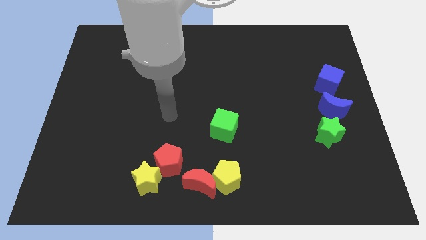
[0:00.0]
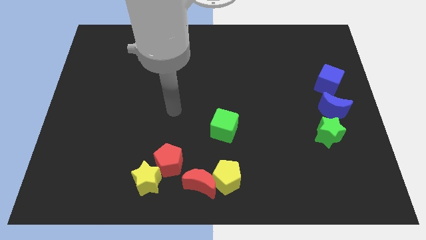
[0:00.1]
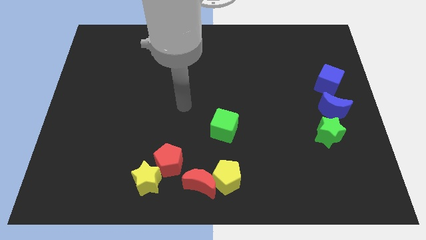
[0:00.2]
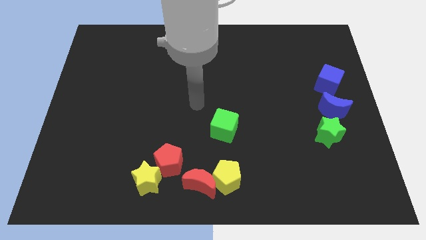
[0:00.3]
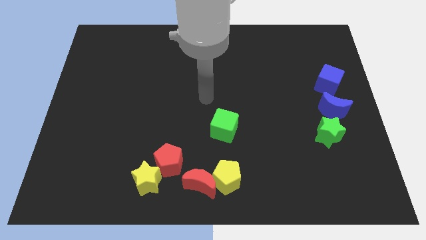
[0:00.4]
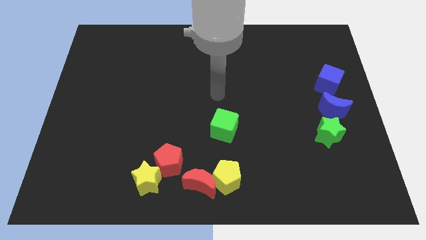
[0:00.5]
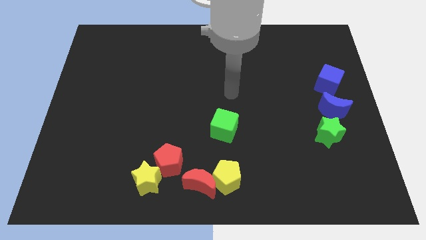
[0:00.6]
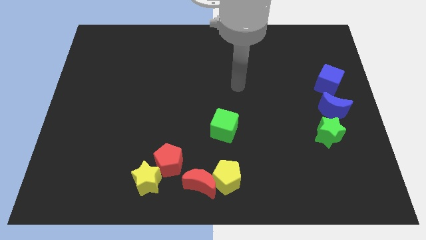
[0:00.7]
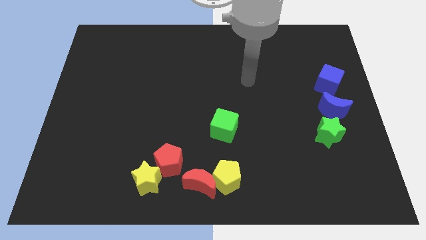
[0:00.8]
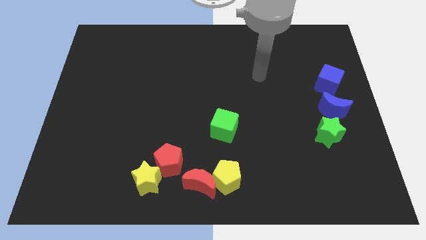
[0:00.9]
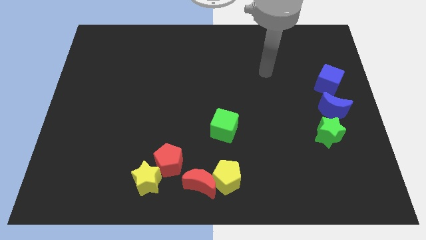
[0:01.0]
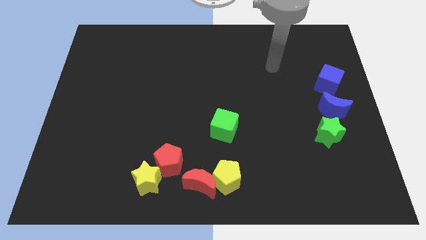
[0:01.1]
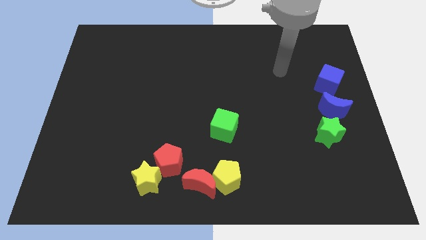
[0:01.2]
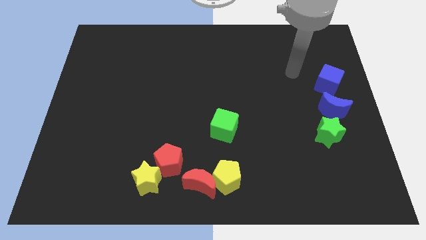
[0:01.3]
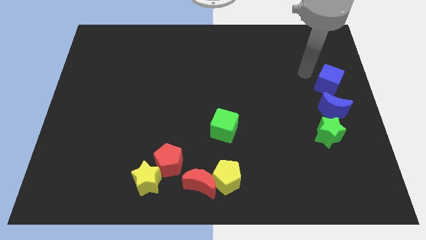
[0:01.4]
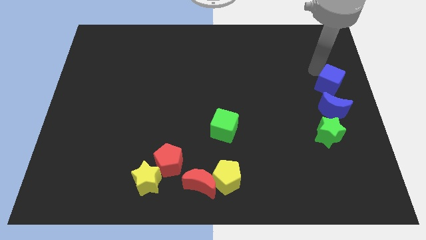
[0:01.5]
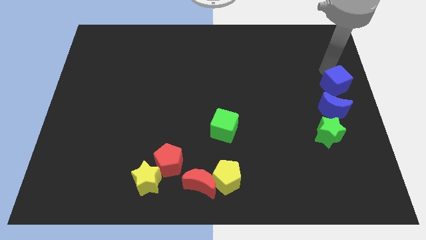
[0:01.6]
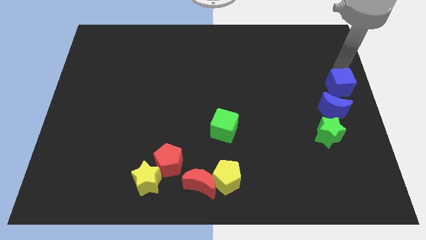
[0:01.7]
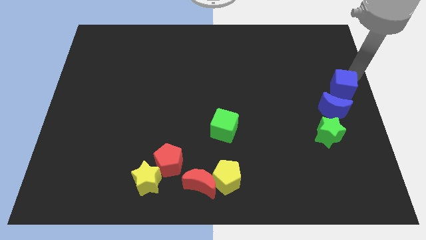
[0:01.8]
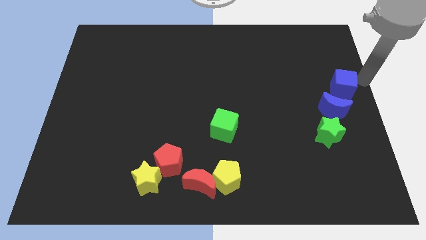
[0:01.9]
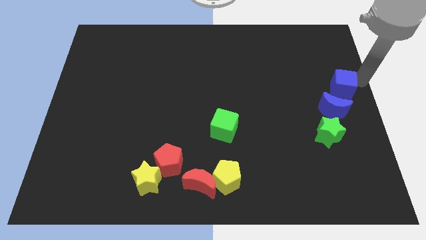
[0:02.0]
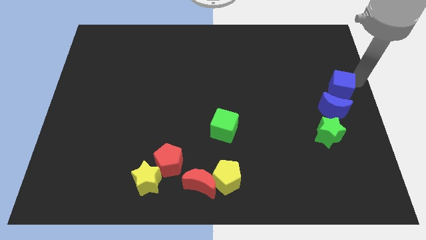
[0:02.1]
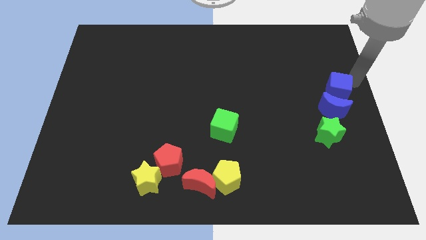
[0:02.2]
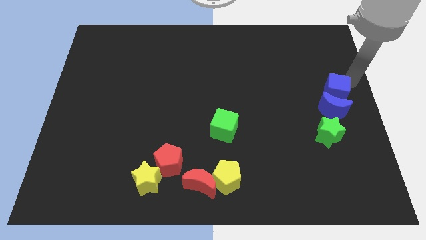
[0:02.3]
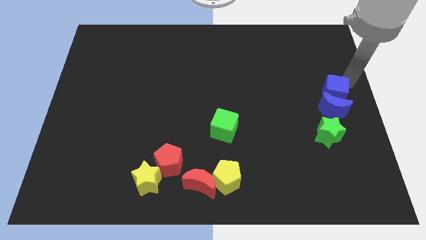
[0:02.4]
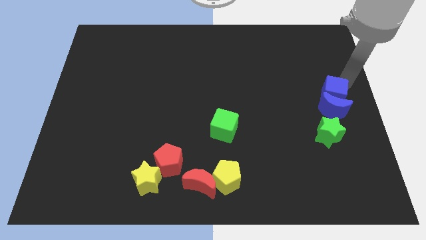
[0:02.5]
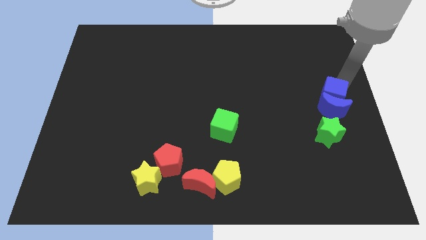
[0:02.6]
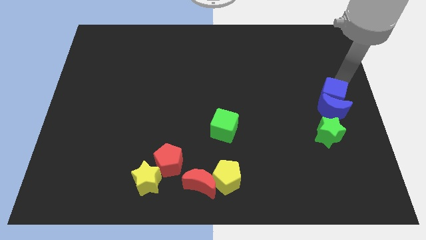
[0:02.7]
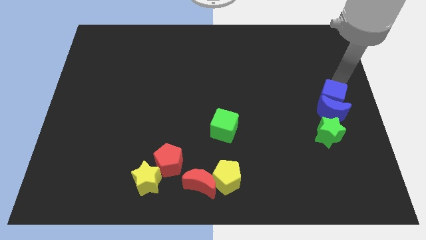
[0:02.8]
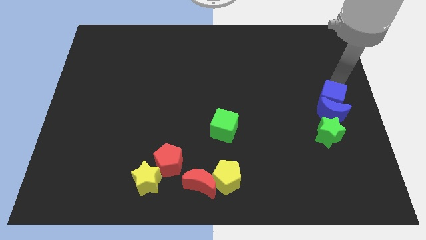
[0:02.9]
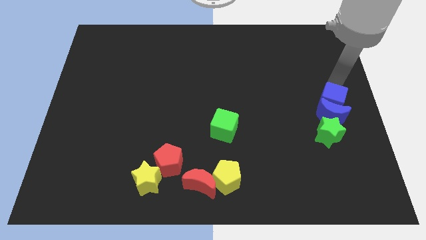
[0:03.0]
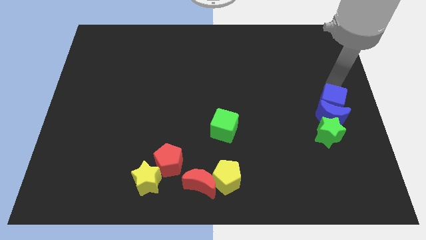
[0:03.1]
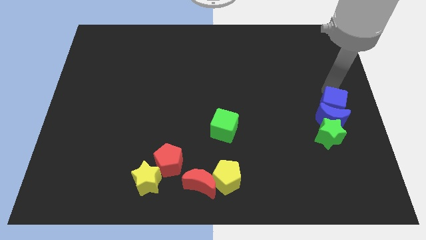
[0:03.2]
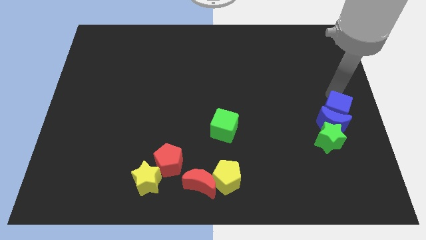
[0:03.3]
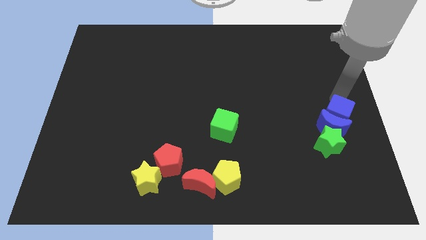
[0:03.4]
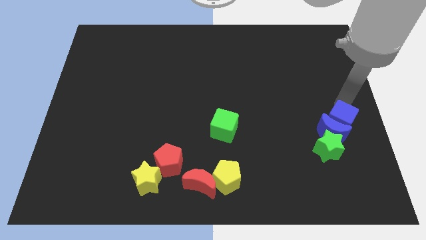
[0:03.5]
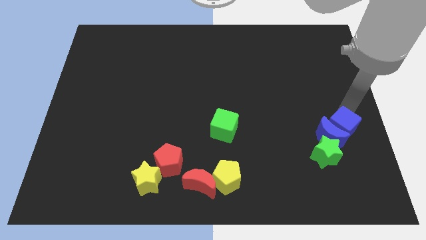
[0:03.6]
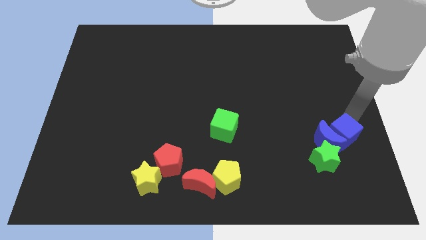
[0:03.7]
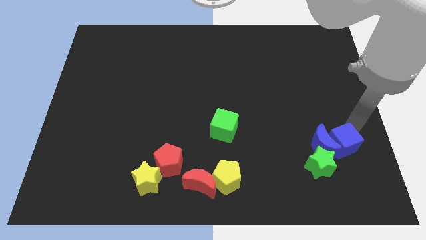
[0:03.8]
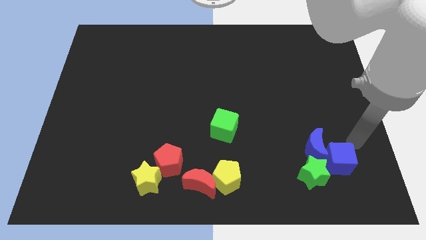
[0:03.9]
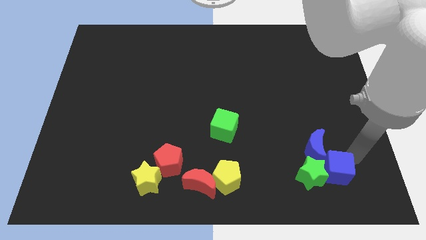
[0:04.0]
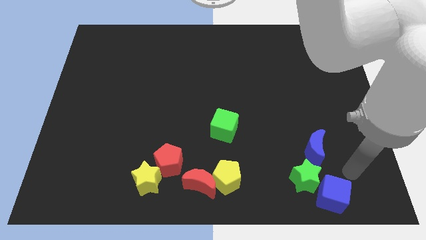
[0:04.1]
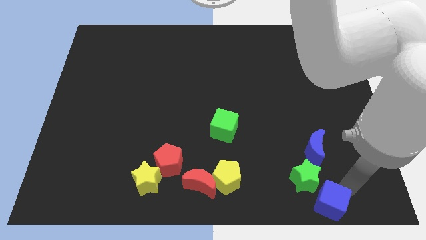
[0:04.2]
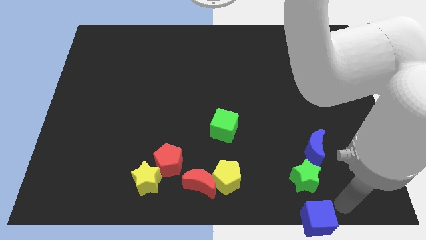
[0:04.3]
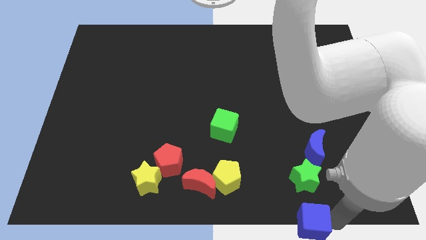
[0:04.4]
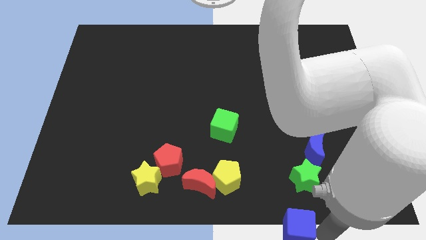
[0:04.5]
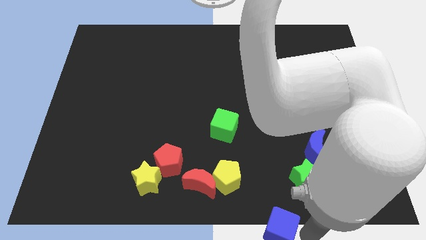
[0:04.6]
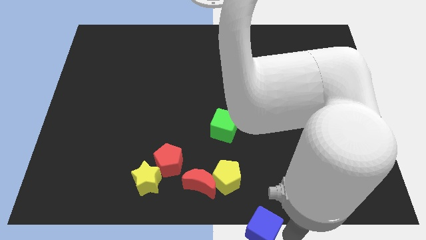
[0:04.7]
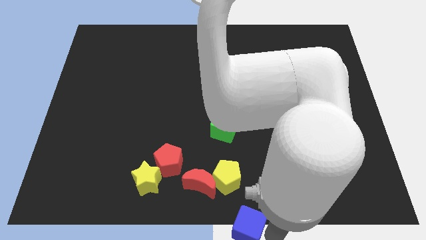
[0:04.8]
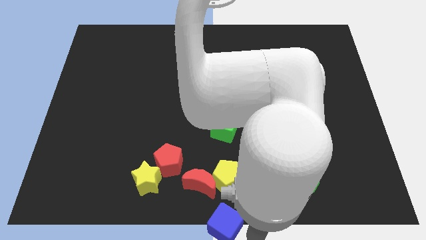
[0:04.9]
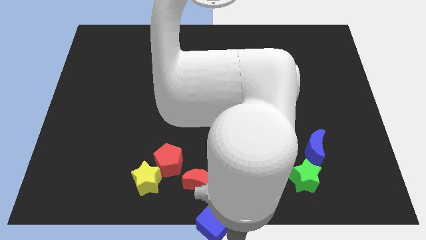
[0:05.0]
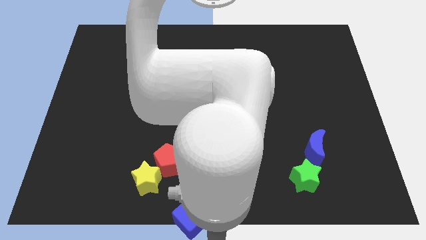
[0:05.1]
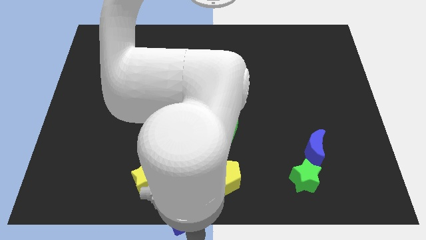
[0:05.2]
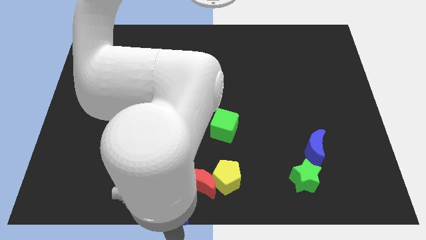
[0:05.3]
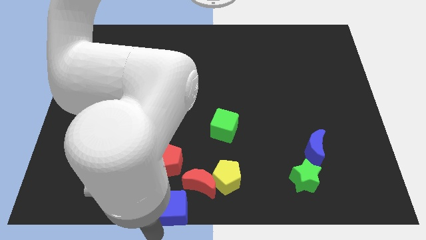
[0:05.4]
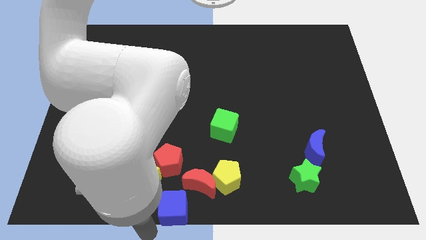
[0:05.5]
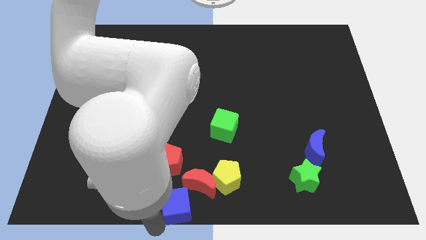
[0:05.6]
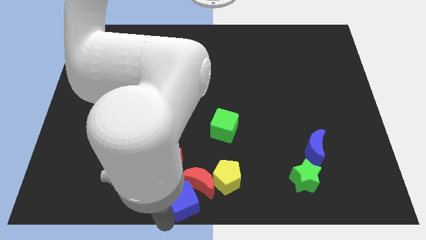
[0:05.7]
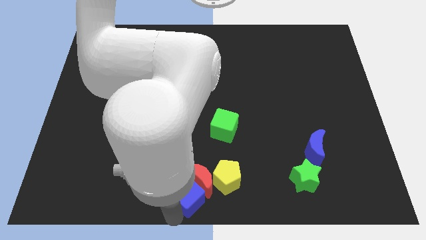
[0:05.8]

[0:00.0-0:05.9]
push the blue cube down and left diagonally

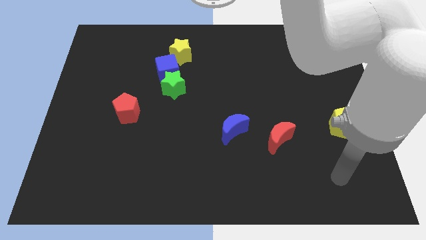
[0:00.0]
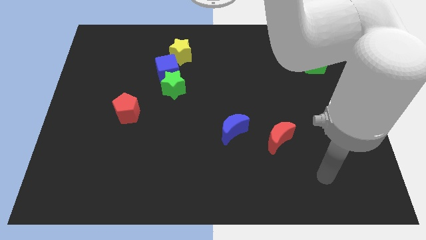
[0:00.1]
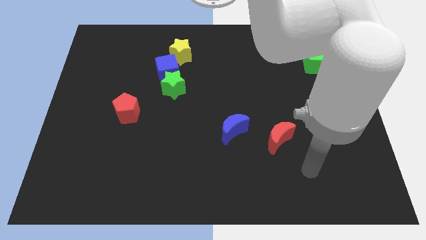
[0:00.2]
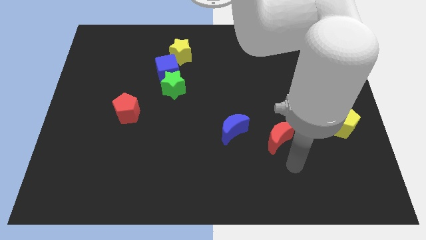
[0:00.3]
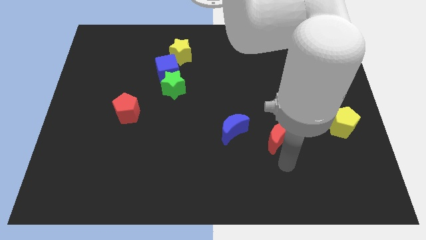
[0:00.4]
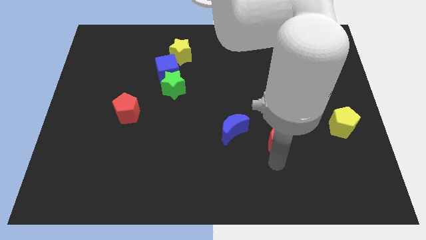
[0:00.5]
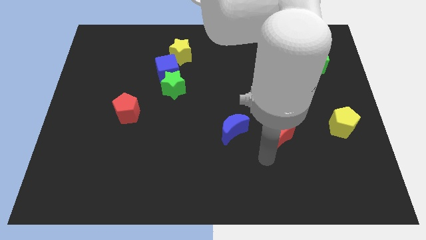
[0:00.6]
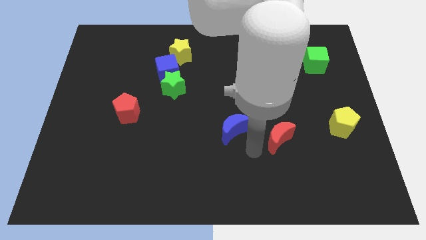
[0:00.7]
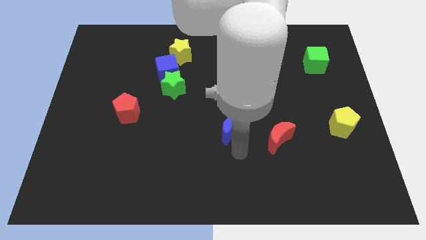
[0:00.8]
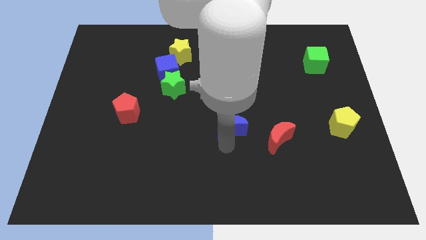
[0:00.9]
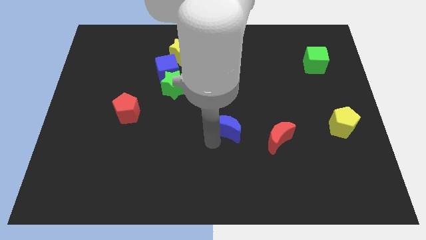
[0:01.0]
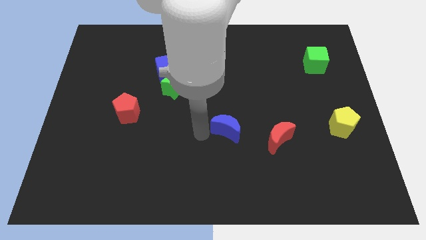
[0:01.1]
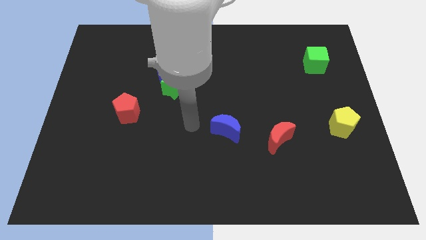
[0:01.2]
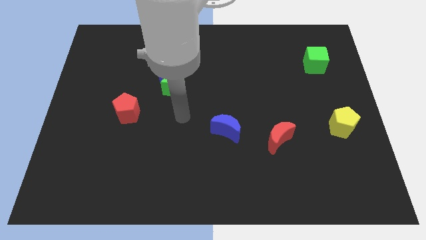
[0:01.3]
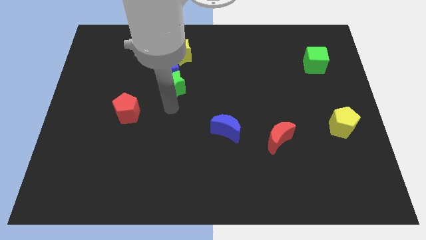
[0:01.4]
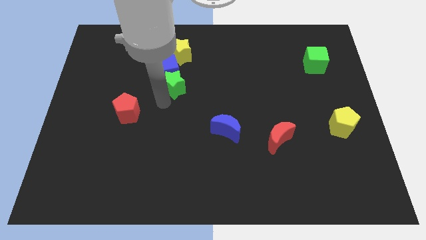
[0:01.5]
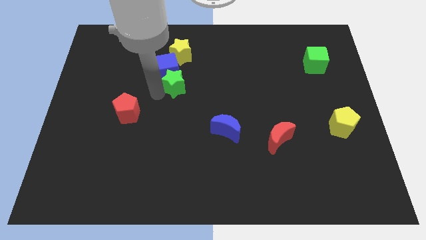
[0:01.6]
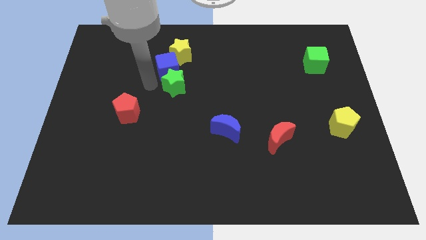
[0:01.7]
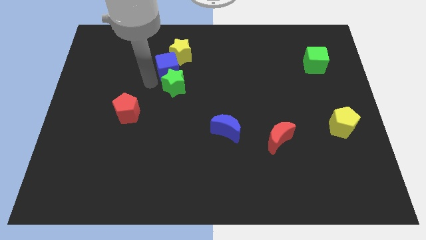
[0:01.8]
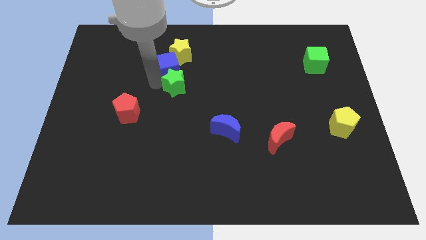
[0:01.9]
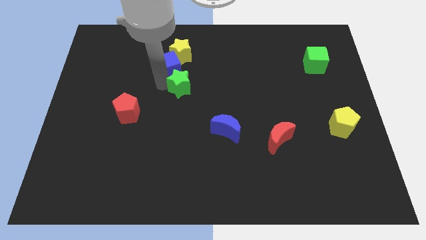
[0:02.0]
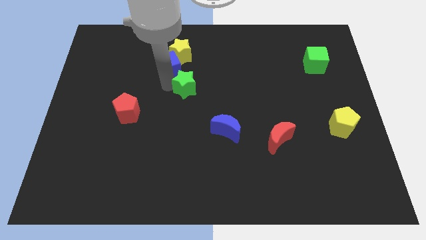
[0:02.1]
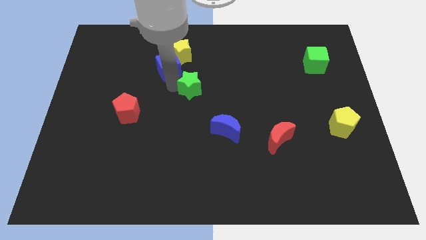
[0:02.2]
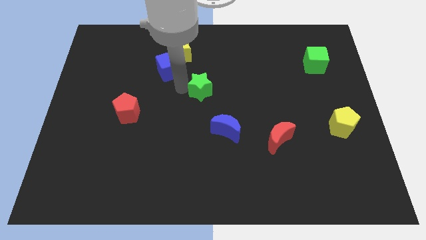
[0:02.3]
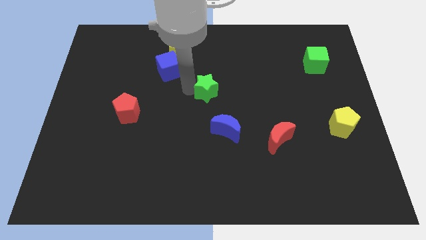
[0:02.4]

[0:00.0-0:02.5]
move the green star a little bit right
